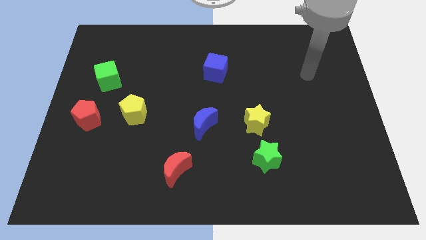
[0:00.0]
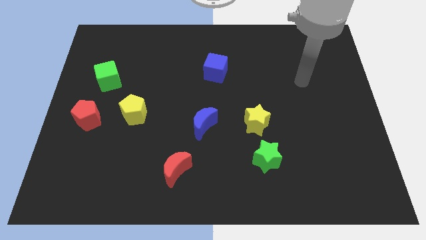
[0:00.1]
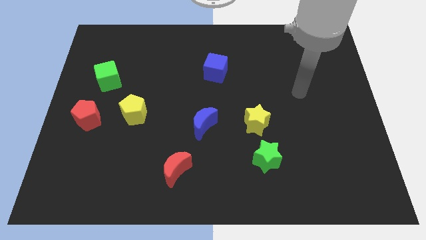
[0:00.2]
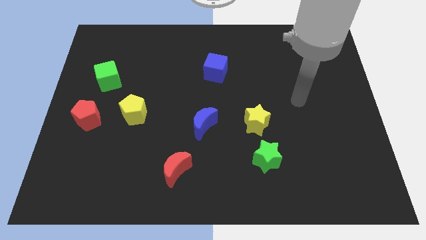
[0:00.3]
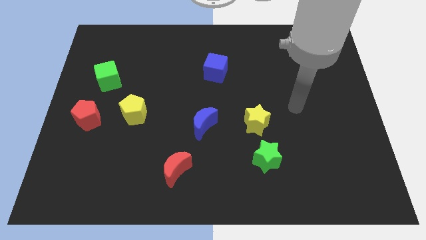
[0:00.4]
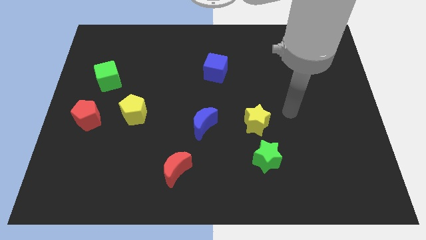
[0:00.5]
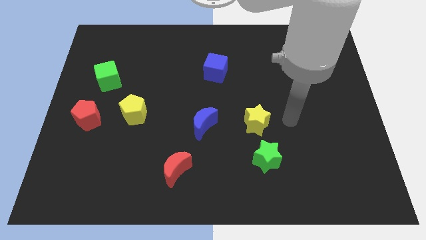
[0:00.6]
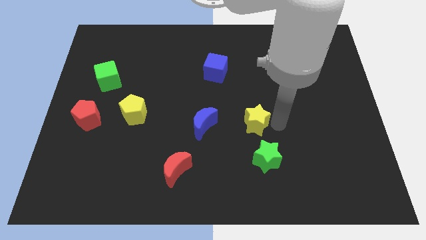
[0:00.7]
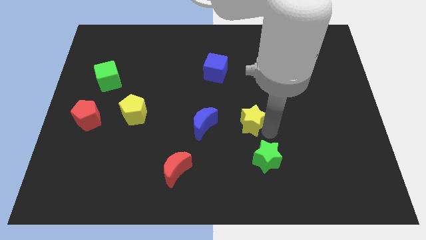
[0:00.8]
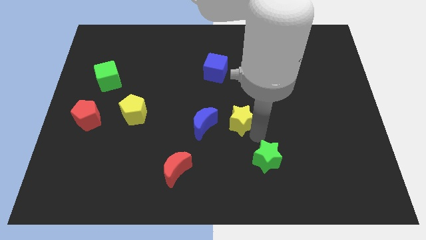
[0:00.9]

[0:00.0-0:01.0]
separate the green star from the yellow star

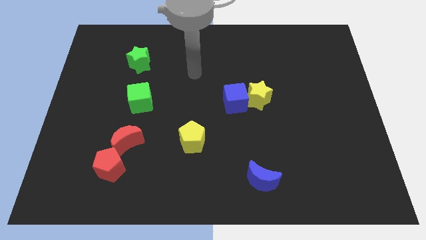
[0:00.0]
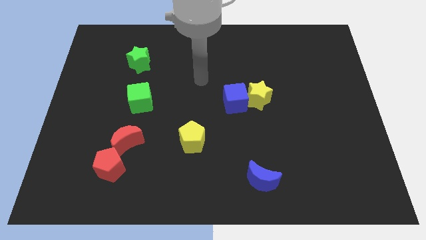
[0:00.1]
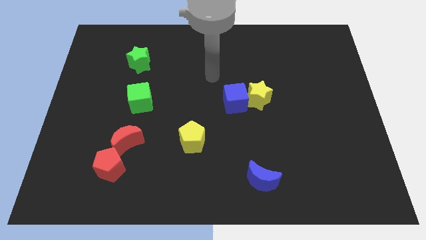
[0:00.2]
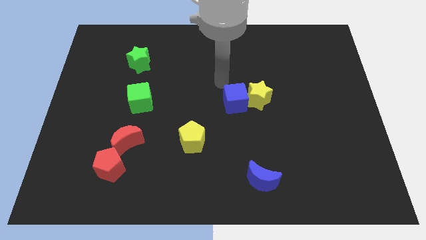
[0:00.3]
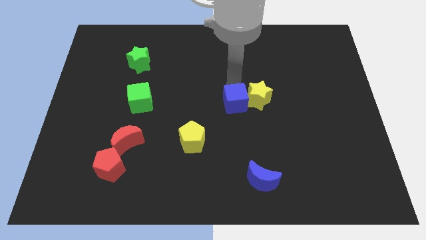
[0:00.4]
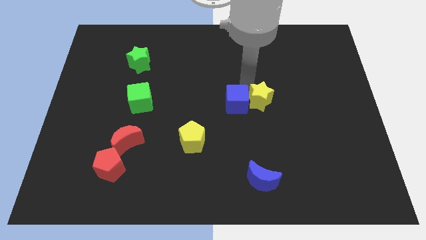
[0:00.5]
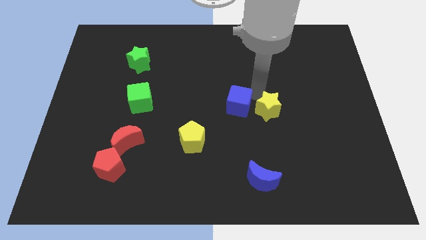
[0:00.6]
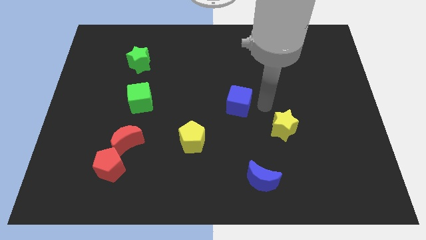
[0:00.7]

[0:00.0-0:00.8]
move the blue cube away from the yellow star

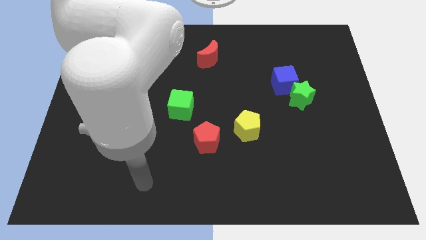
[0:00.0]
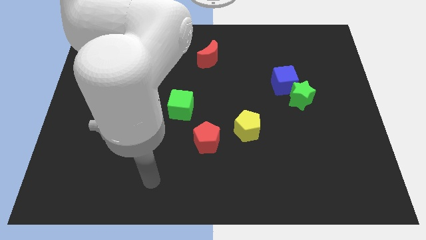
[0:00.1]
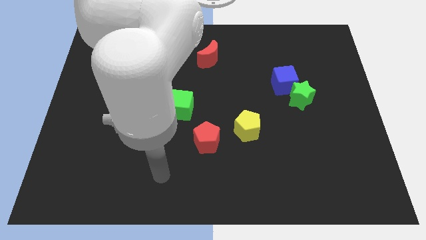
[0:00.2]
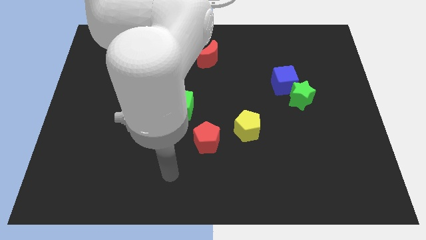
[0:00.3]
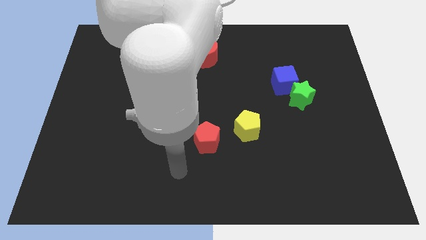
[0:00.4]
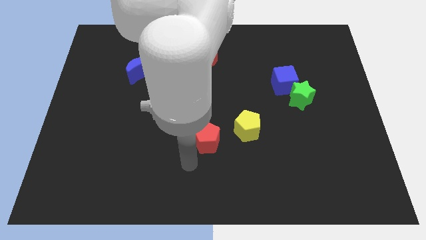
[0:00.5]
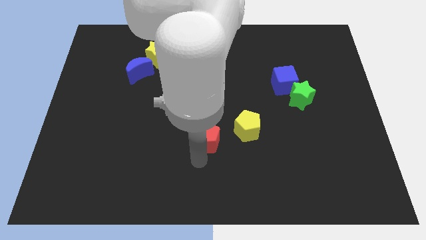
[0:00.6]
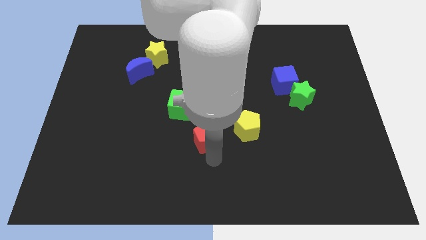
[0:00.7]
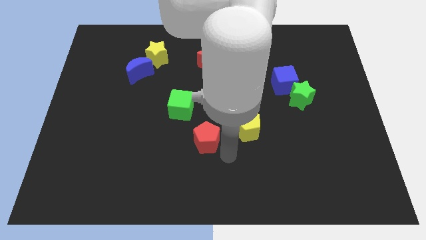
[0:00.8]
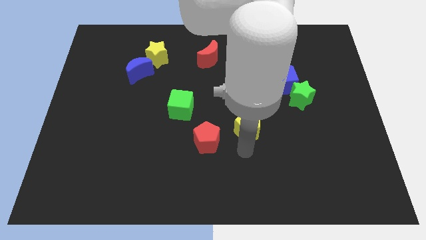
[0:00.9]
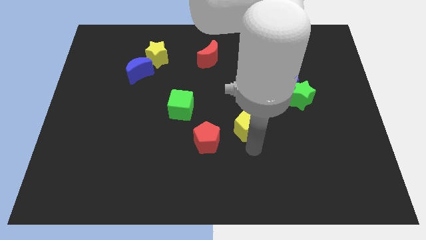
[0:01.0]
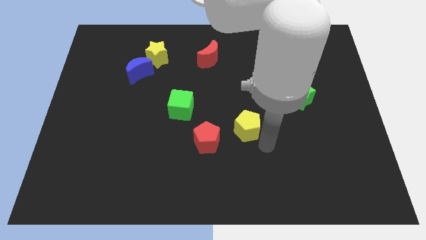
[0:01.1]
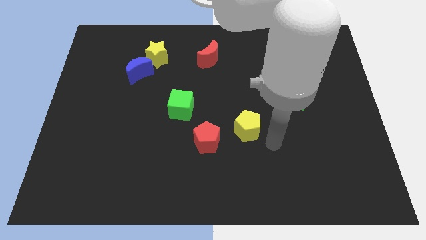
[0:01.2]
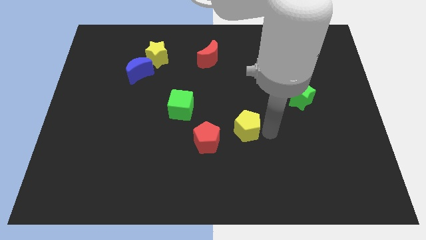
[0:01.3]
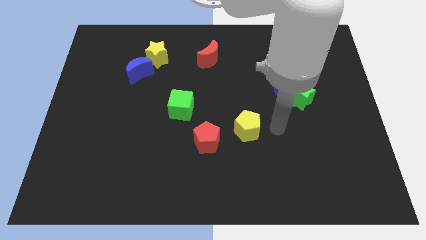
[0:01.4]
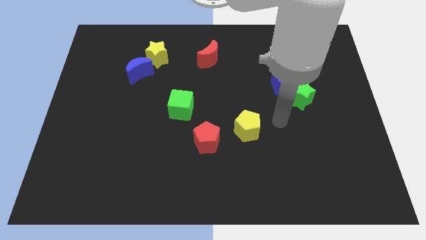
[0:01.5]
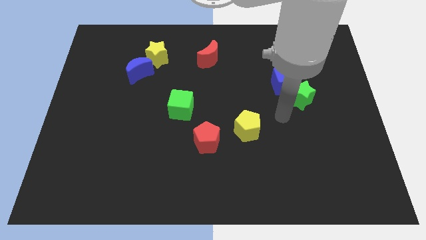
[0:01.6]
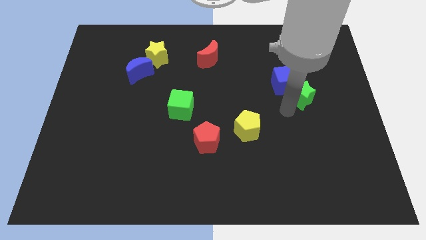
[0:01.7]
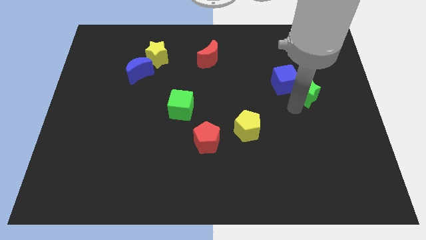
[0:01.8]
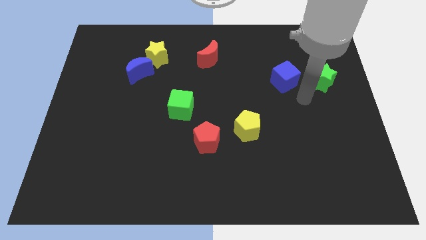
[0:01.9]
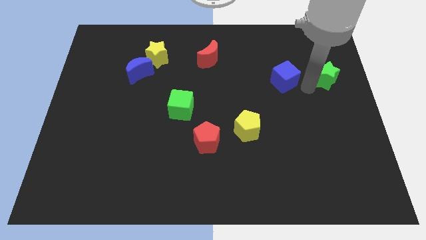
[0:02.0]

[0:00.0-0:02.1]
move the blue cube away from the green star

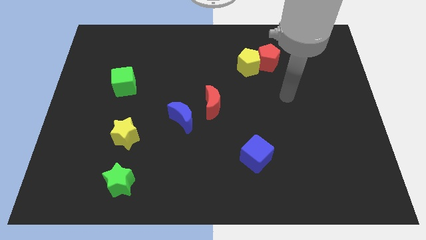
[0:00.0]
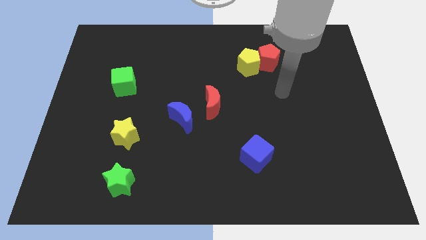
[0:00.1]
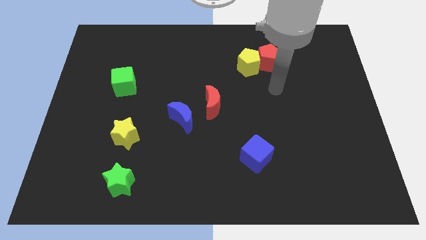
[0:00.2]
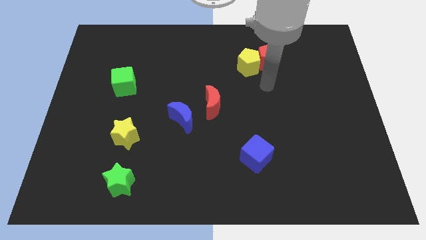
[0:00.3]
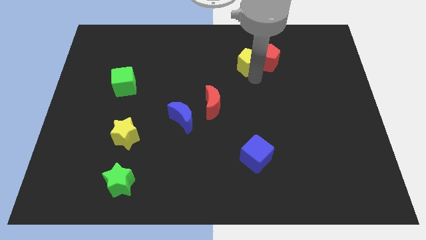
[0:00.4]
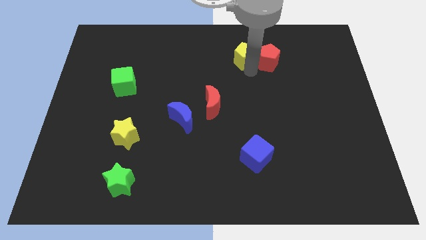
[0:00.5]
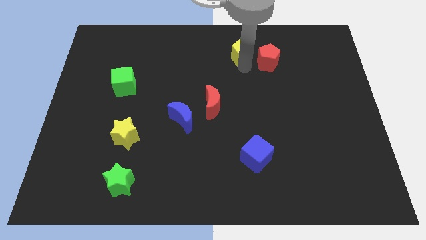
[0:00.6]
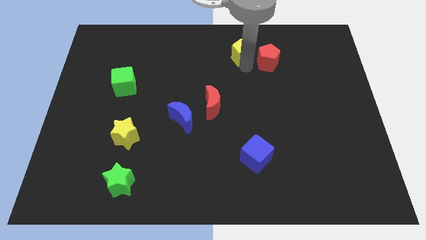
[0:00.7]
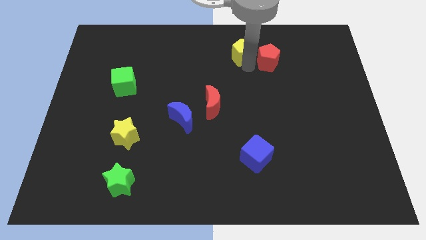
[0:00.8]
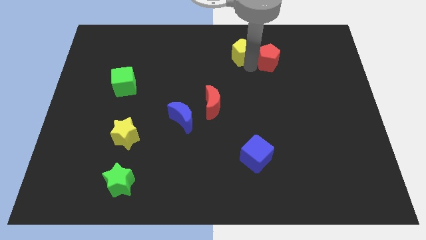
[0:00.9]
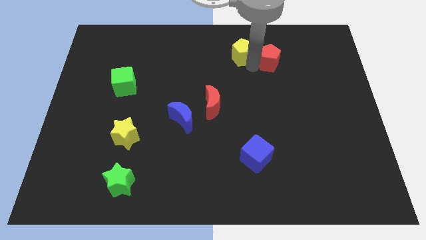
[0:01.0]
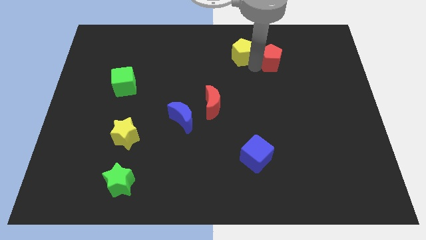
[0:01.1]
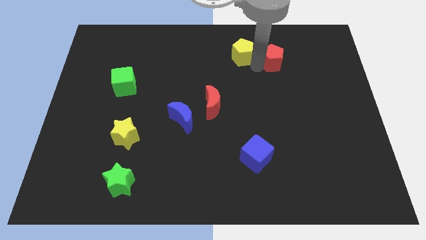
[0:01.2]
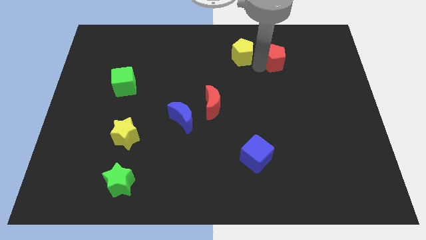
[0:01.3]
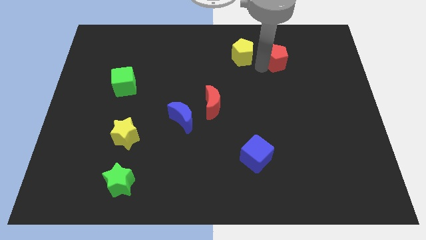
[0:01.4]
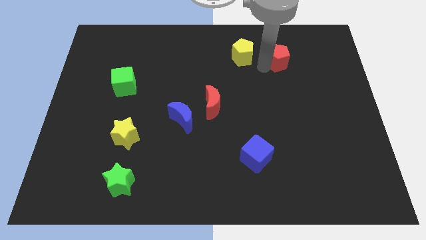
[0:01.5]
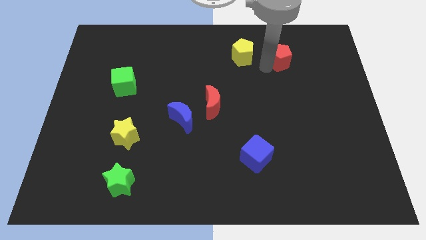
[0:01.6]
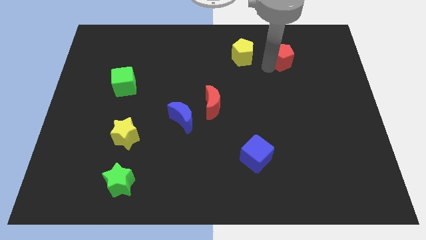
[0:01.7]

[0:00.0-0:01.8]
separate the red pentagon from the yellow pentagon

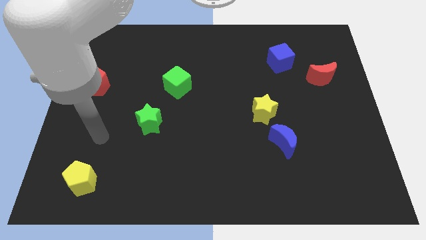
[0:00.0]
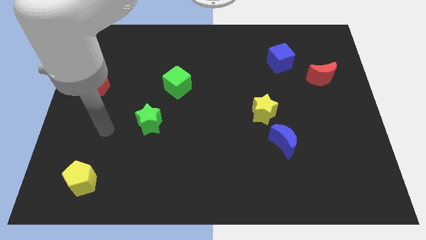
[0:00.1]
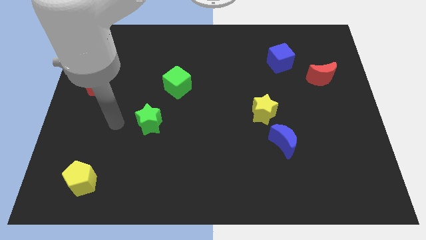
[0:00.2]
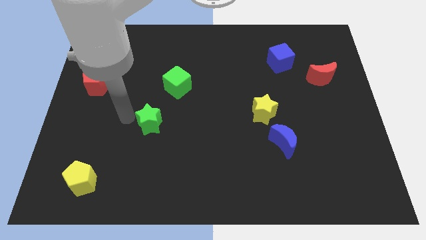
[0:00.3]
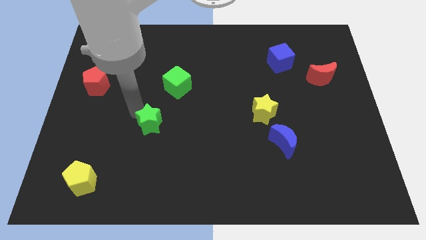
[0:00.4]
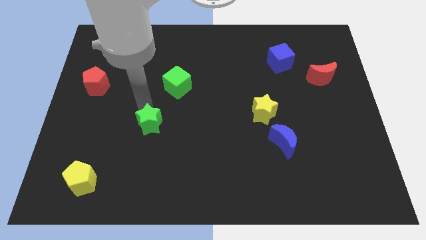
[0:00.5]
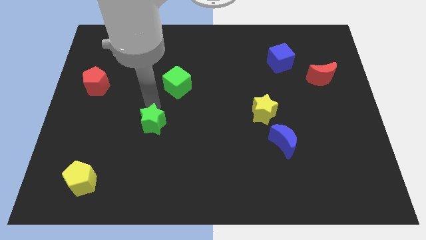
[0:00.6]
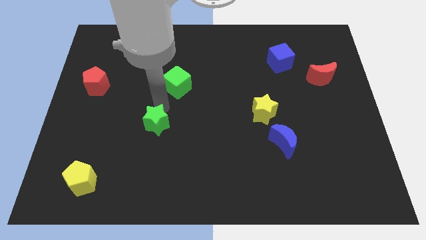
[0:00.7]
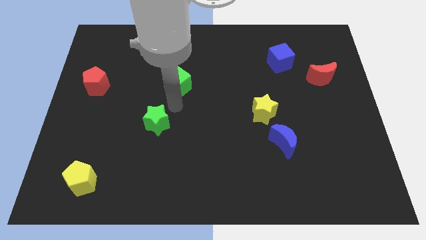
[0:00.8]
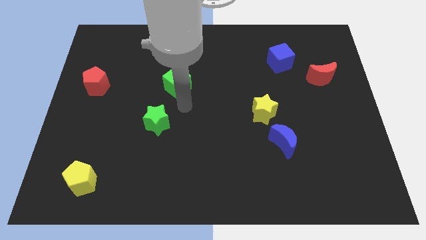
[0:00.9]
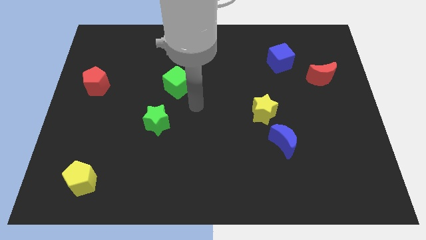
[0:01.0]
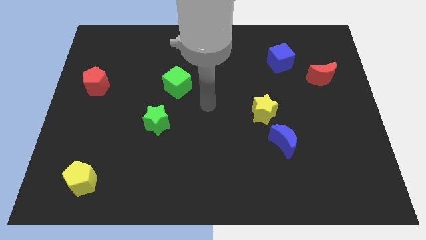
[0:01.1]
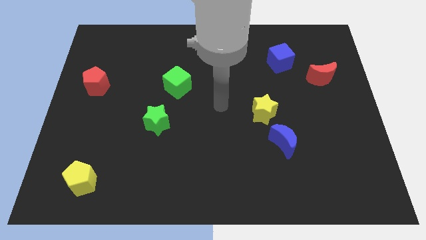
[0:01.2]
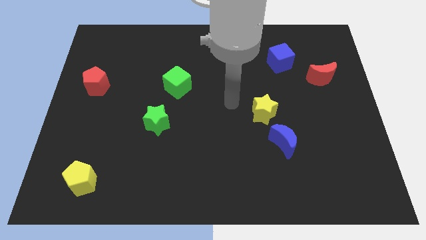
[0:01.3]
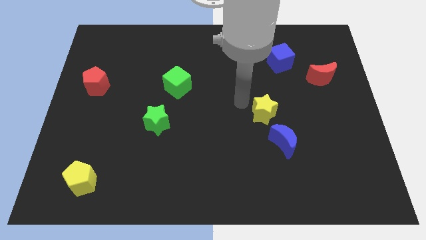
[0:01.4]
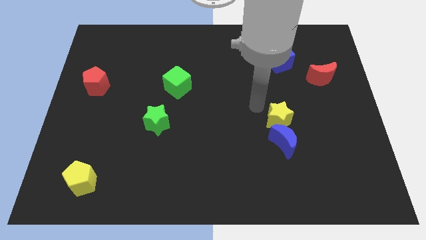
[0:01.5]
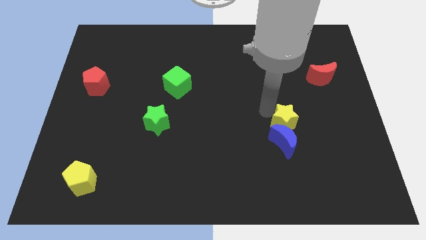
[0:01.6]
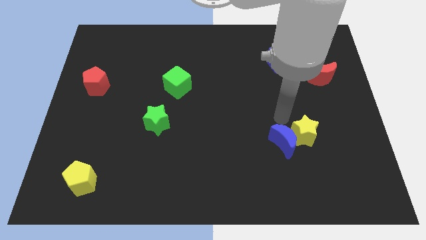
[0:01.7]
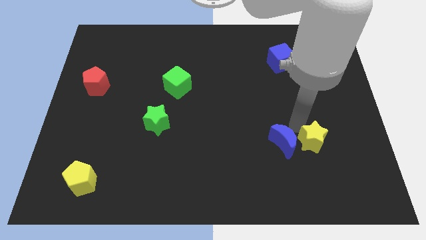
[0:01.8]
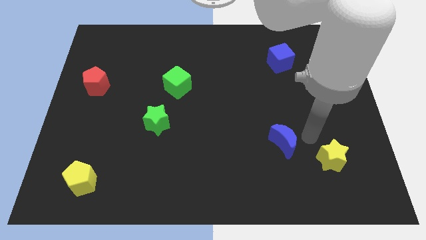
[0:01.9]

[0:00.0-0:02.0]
pull the blue moon apart from the yellow star

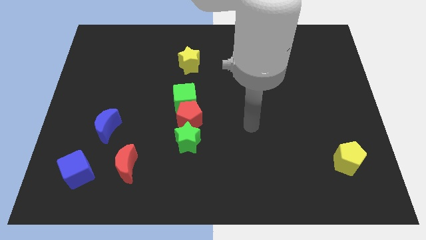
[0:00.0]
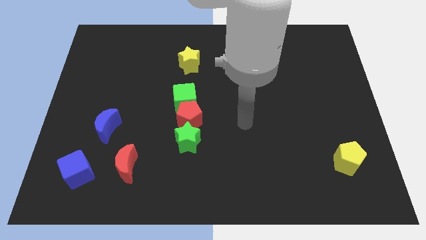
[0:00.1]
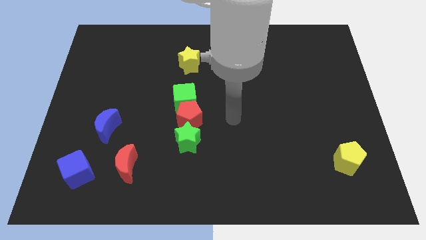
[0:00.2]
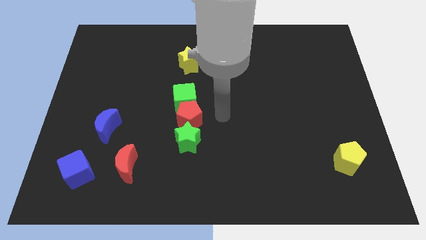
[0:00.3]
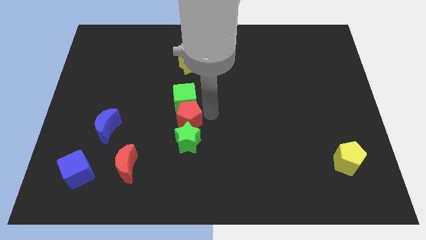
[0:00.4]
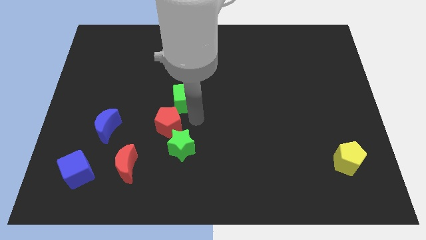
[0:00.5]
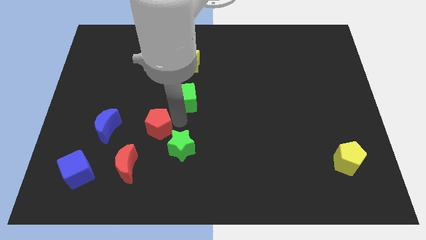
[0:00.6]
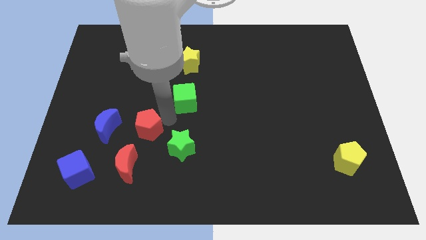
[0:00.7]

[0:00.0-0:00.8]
separate the green cube from the red pentagon

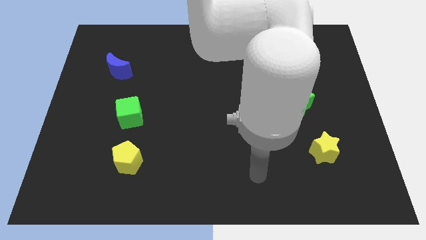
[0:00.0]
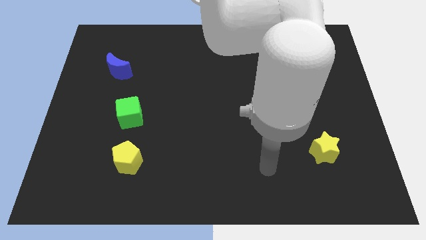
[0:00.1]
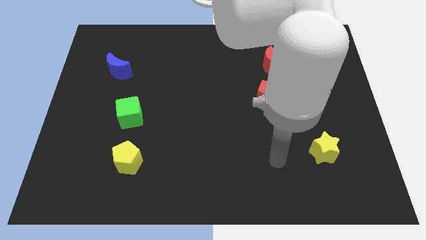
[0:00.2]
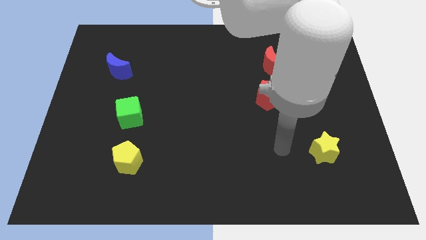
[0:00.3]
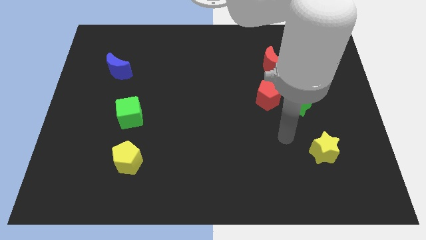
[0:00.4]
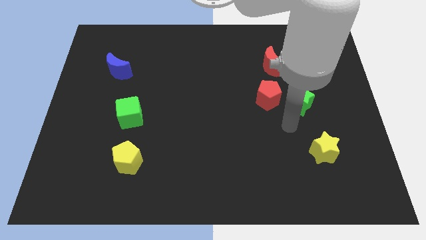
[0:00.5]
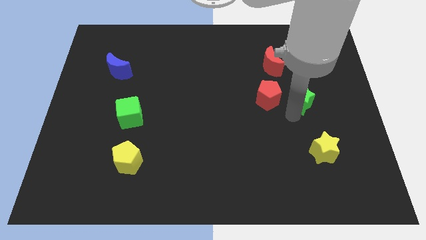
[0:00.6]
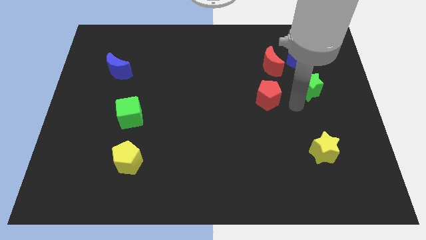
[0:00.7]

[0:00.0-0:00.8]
move the red pentagon away from the green star
